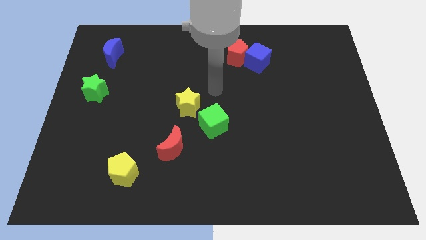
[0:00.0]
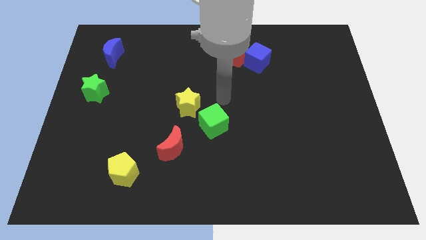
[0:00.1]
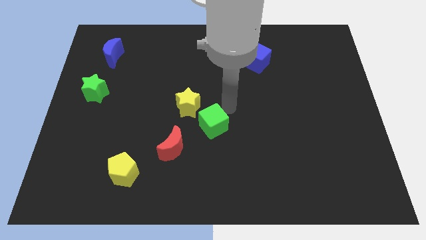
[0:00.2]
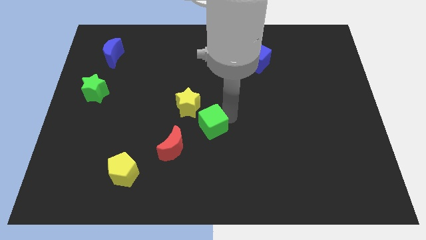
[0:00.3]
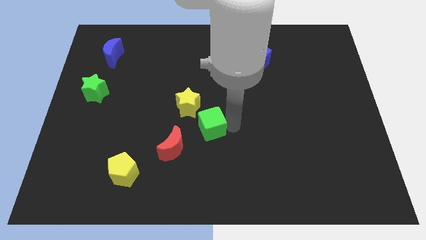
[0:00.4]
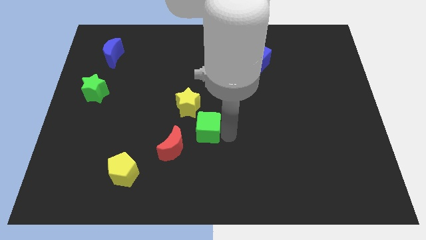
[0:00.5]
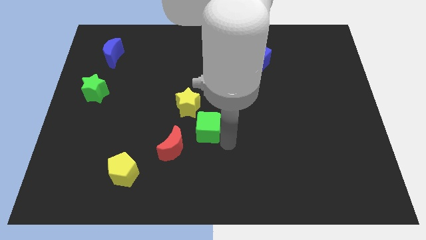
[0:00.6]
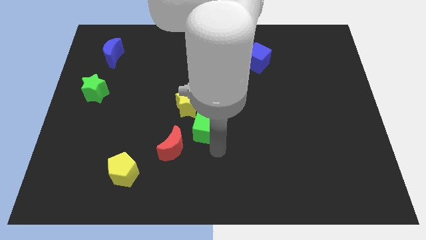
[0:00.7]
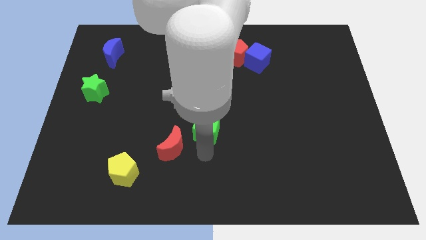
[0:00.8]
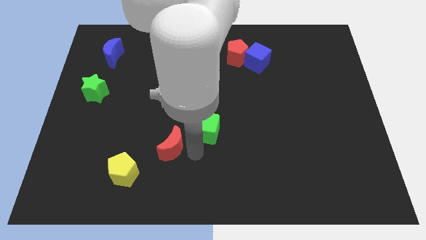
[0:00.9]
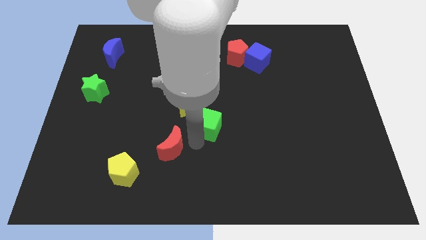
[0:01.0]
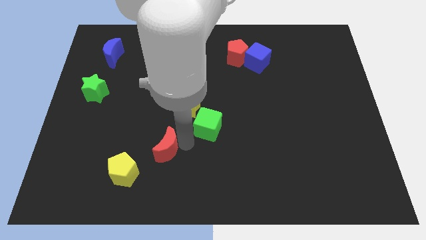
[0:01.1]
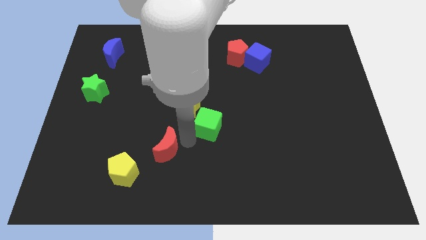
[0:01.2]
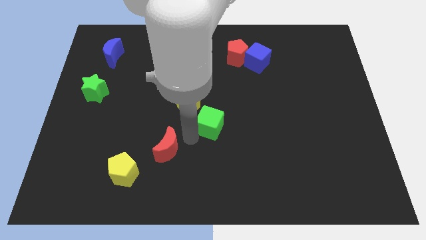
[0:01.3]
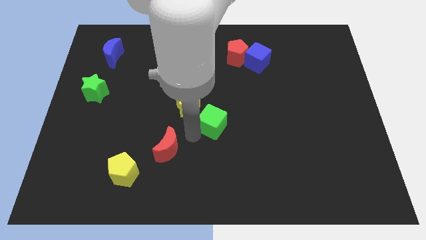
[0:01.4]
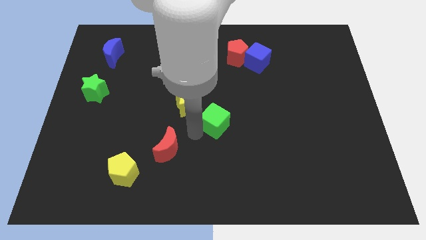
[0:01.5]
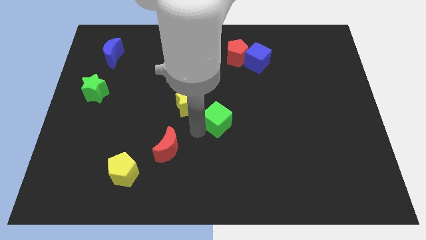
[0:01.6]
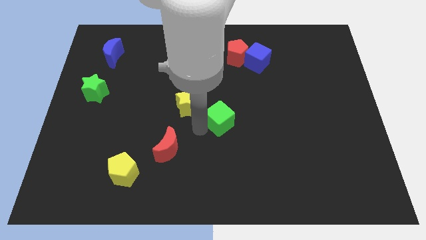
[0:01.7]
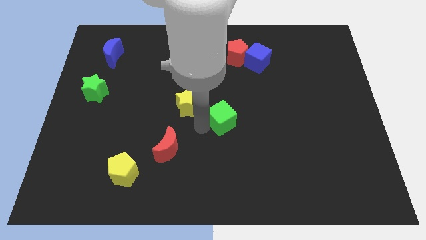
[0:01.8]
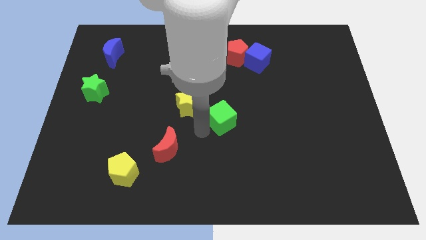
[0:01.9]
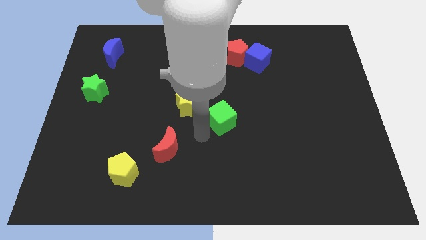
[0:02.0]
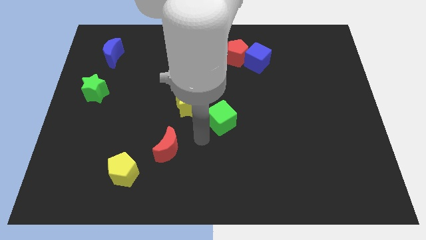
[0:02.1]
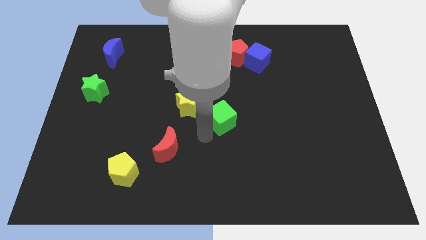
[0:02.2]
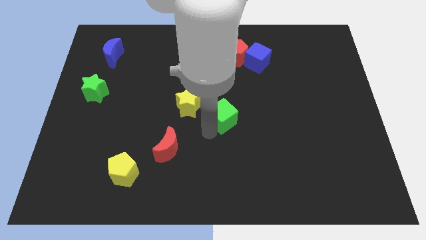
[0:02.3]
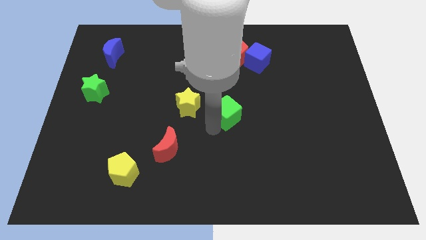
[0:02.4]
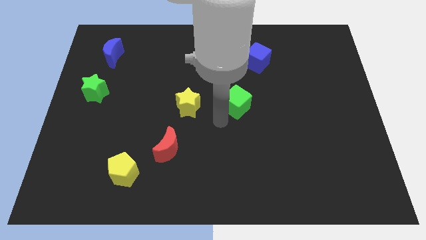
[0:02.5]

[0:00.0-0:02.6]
push the green cube up and to the right diagonally somewhat

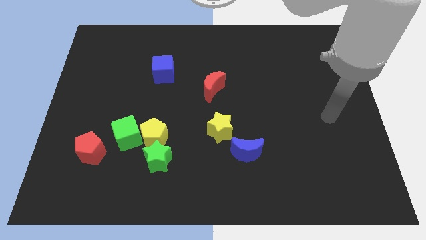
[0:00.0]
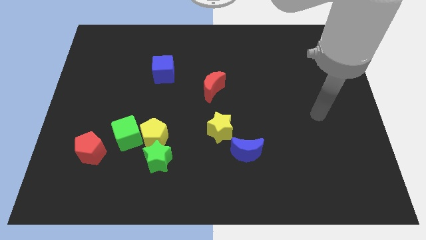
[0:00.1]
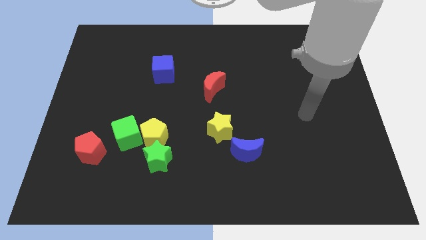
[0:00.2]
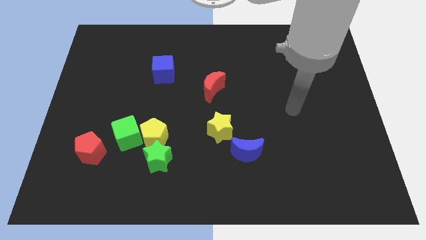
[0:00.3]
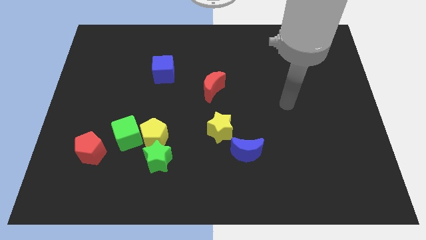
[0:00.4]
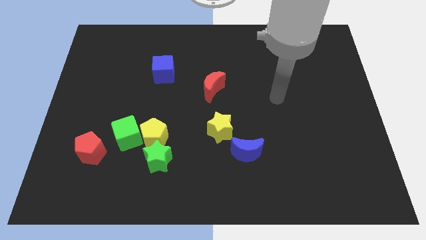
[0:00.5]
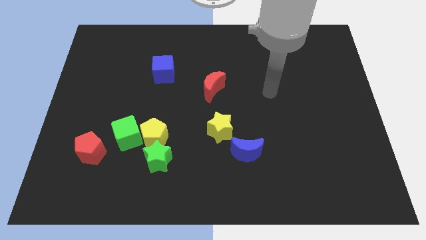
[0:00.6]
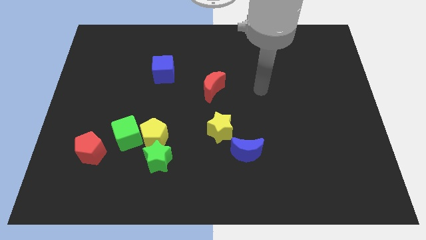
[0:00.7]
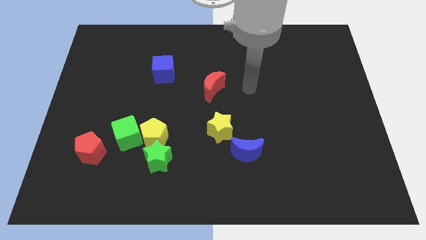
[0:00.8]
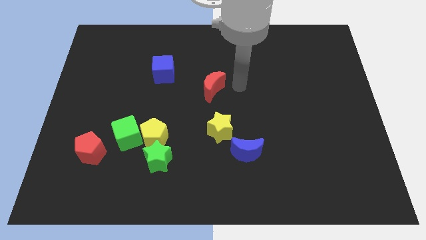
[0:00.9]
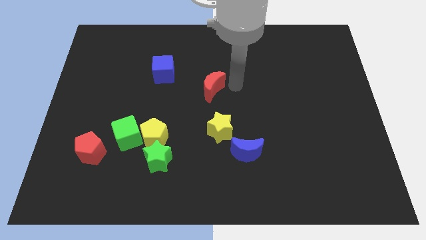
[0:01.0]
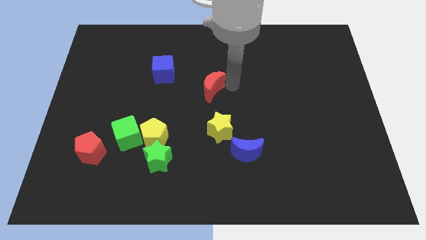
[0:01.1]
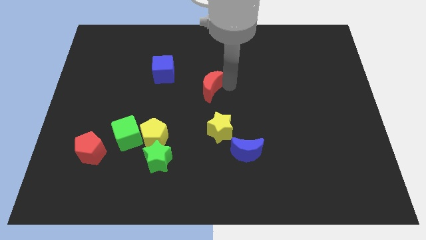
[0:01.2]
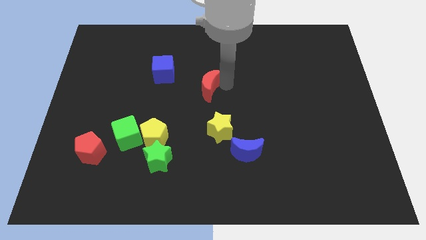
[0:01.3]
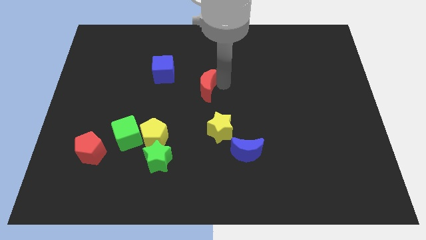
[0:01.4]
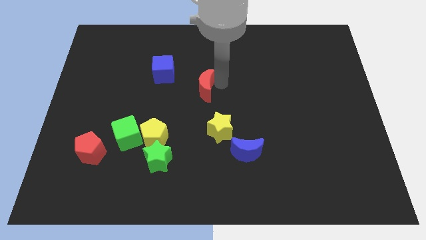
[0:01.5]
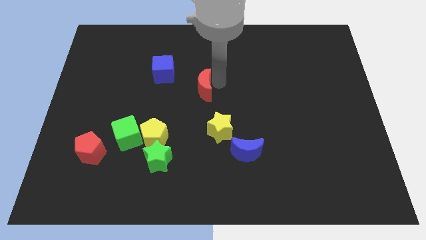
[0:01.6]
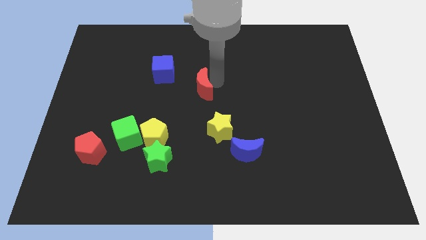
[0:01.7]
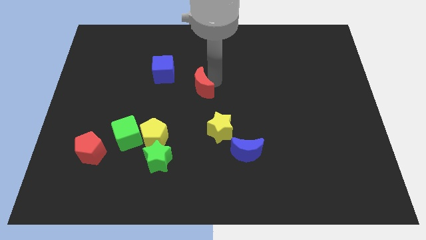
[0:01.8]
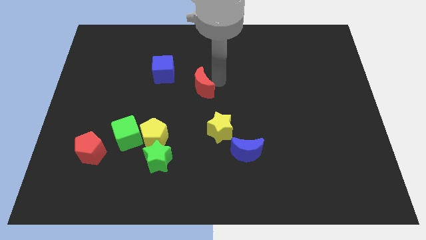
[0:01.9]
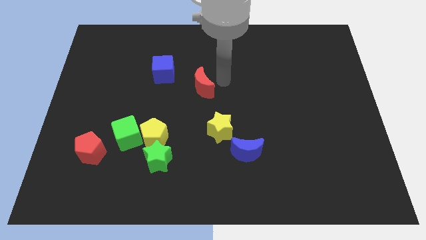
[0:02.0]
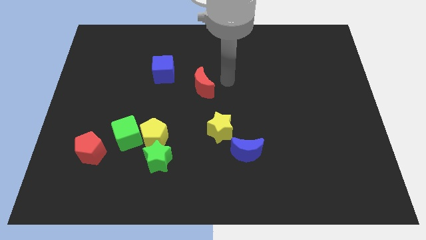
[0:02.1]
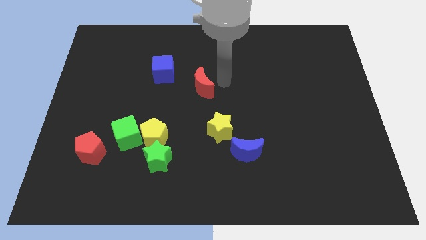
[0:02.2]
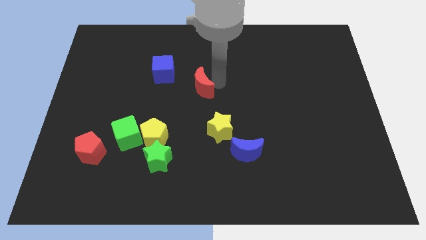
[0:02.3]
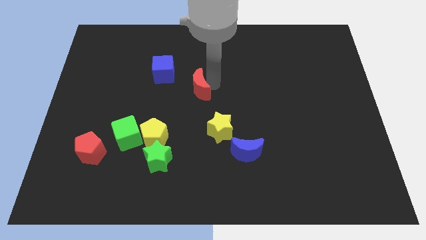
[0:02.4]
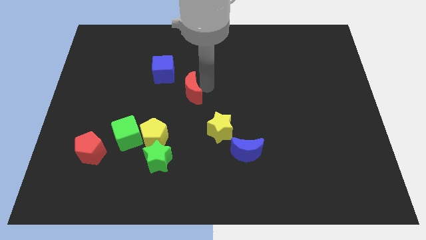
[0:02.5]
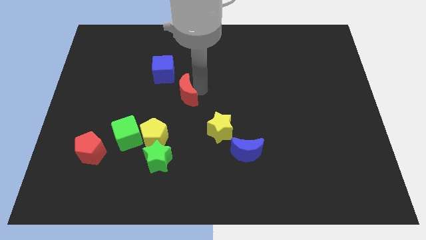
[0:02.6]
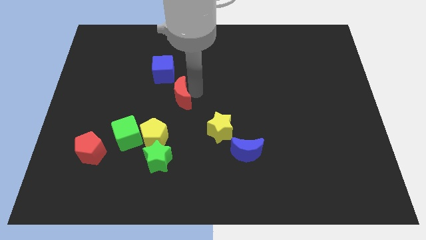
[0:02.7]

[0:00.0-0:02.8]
slide the red moon to the left a little bit

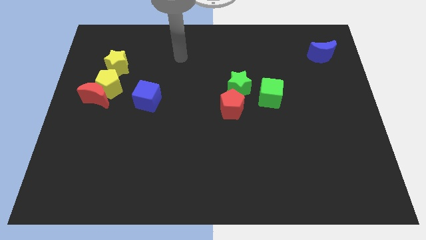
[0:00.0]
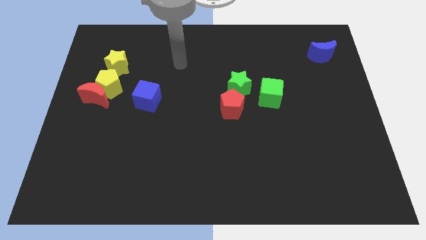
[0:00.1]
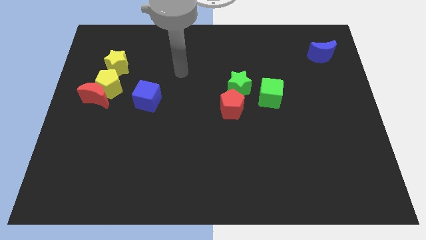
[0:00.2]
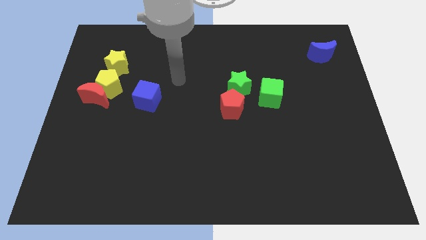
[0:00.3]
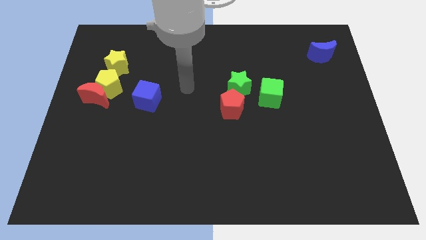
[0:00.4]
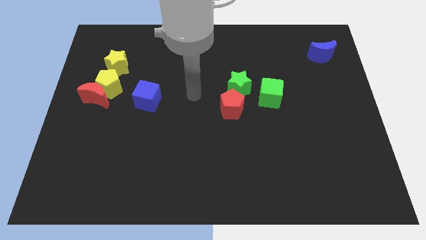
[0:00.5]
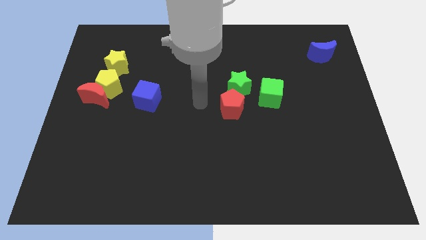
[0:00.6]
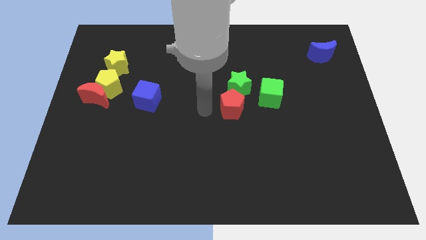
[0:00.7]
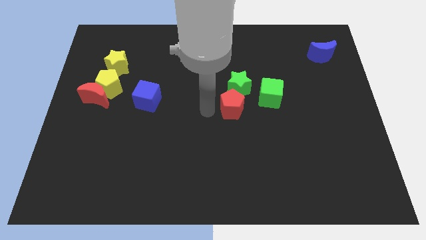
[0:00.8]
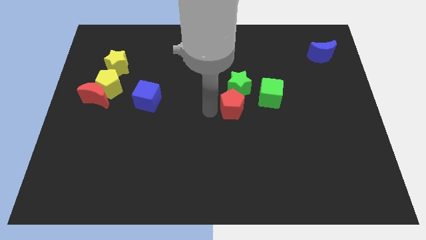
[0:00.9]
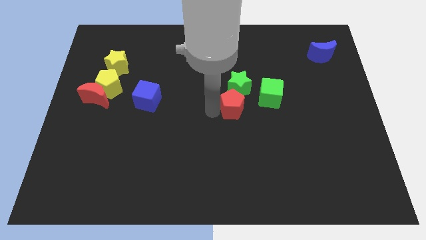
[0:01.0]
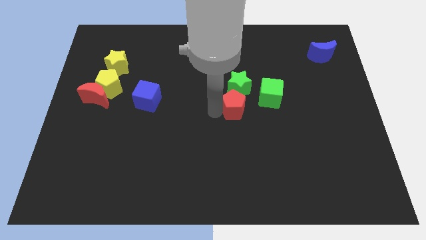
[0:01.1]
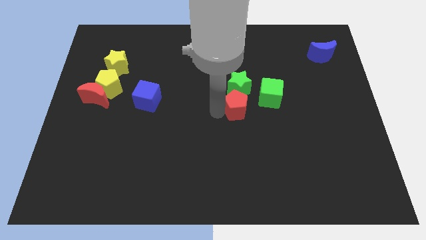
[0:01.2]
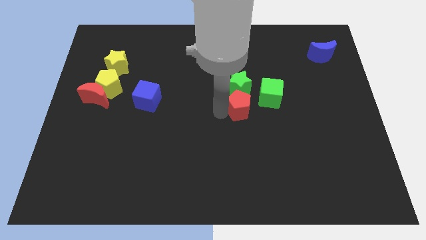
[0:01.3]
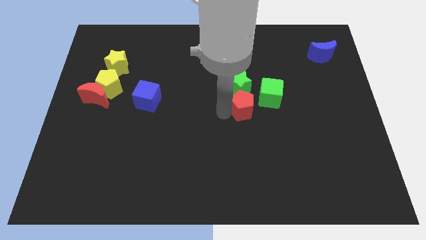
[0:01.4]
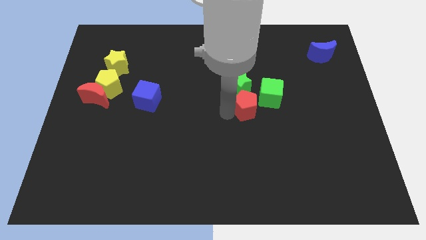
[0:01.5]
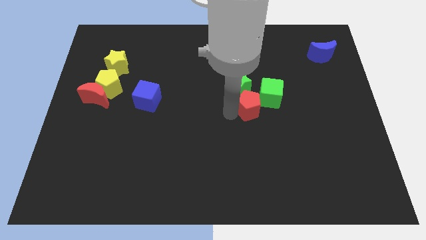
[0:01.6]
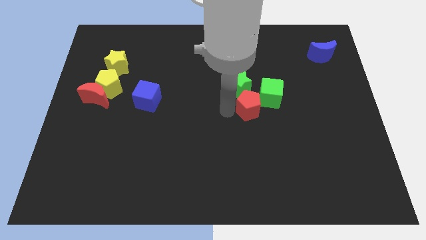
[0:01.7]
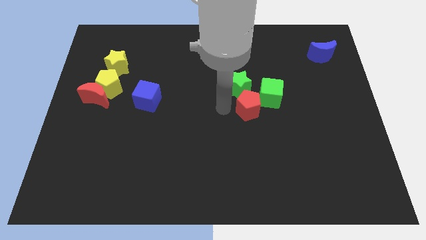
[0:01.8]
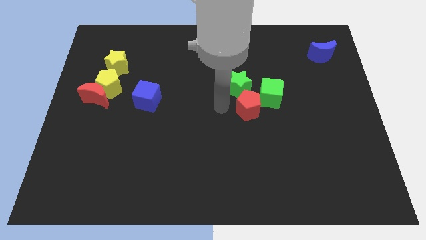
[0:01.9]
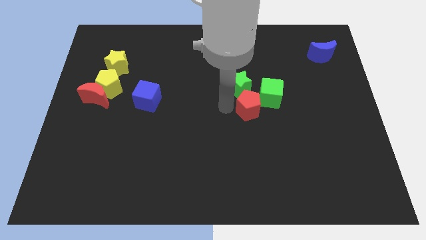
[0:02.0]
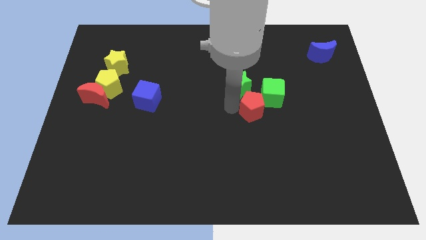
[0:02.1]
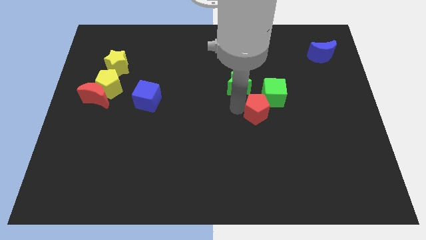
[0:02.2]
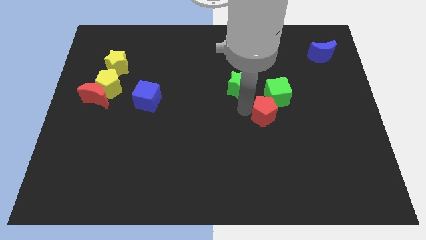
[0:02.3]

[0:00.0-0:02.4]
move the red pentagon a little bit to the right
